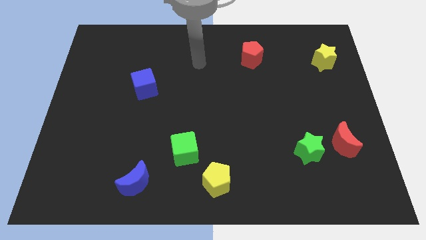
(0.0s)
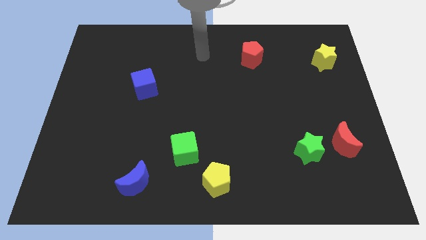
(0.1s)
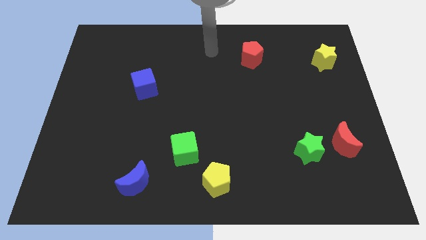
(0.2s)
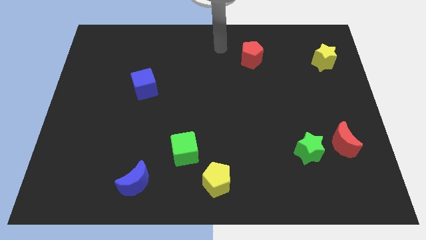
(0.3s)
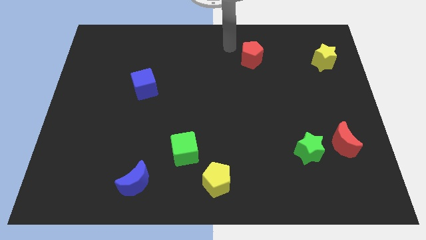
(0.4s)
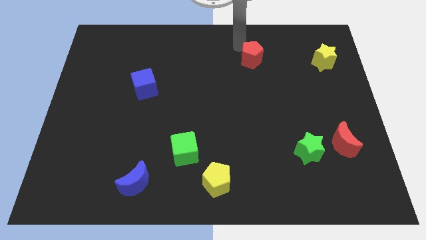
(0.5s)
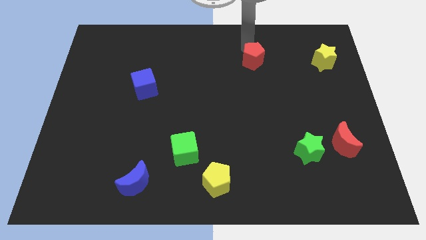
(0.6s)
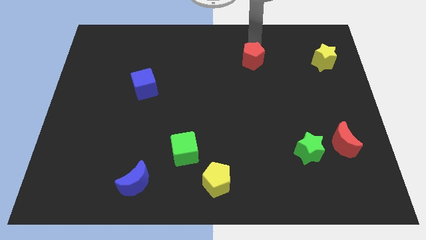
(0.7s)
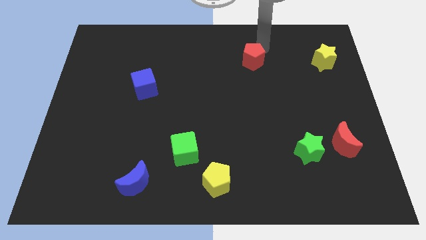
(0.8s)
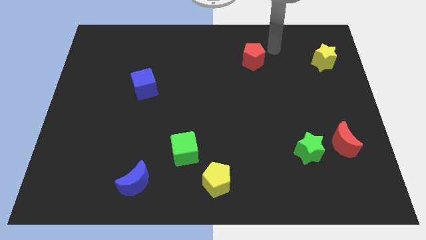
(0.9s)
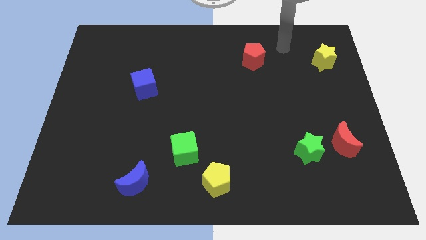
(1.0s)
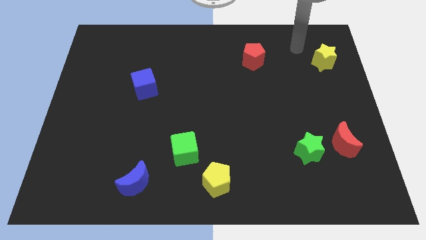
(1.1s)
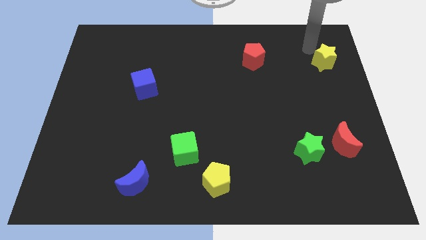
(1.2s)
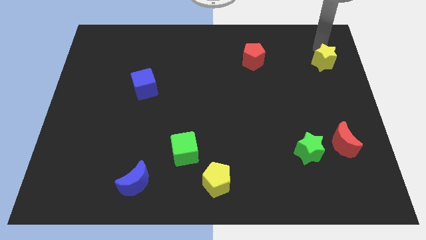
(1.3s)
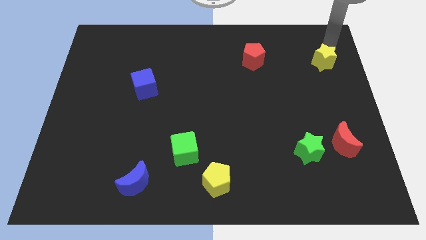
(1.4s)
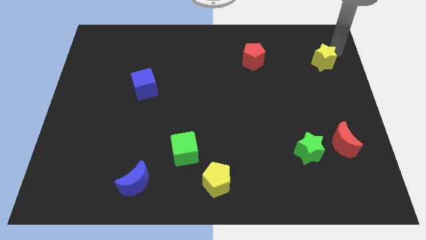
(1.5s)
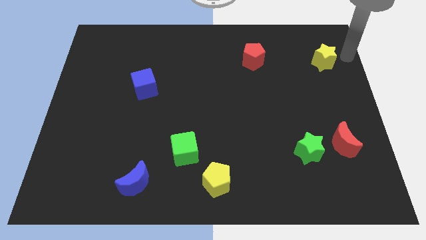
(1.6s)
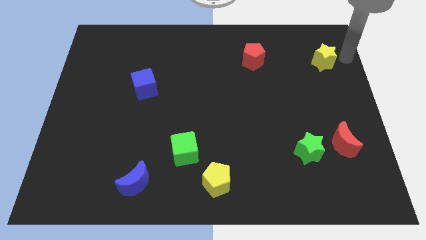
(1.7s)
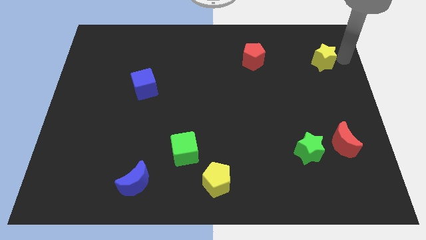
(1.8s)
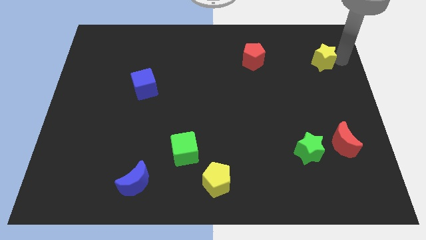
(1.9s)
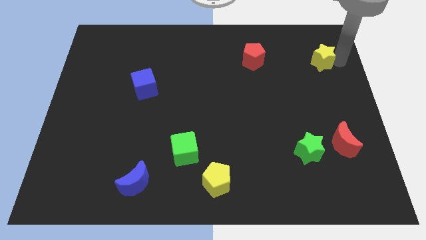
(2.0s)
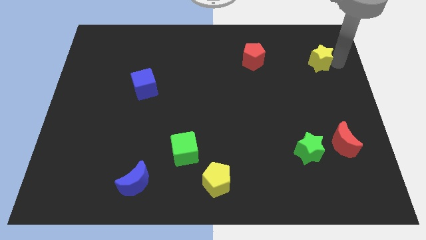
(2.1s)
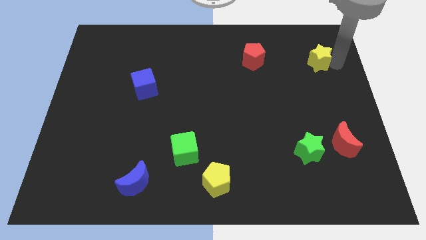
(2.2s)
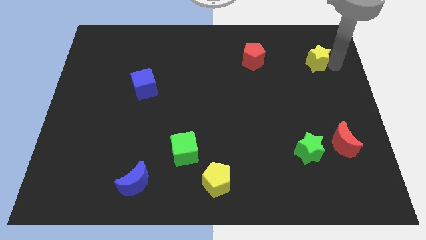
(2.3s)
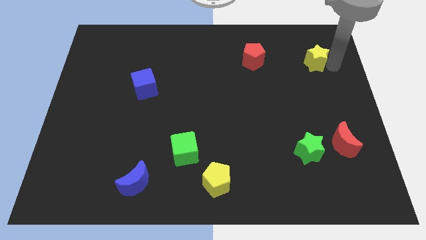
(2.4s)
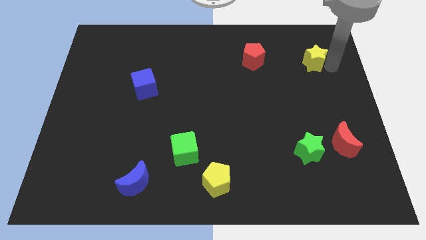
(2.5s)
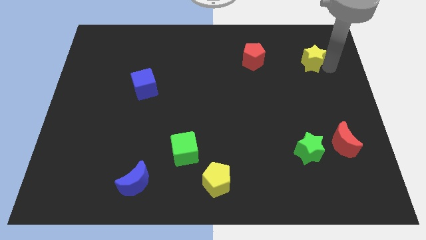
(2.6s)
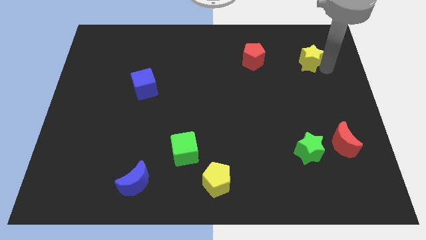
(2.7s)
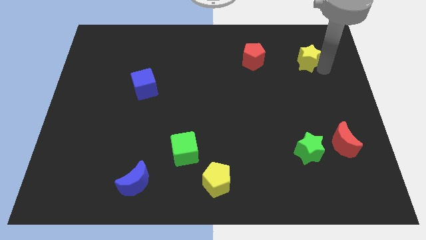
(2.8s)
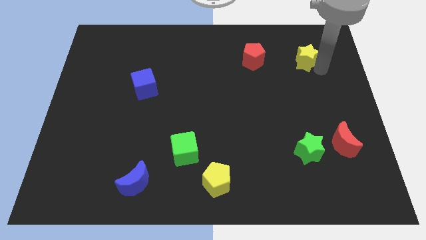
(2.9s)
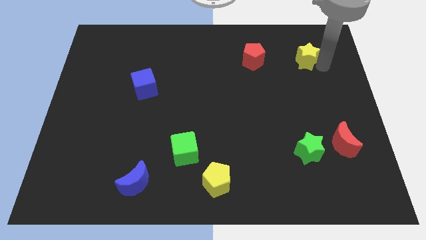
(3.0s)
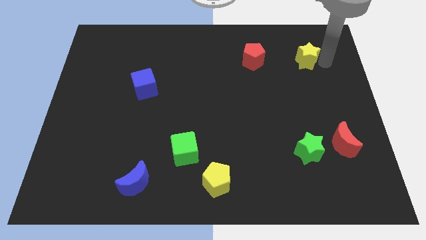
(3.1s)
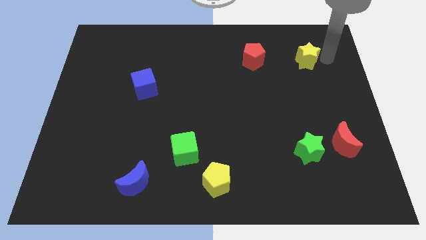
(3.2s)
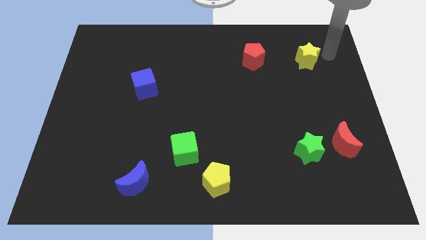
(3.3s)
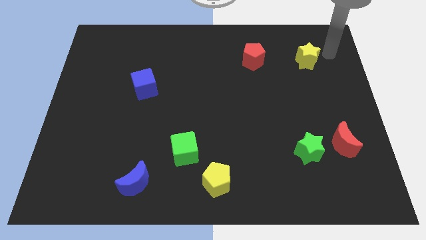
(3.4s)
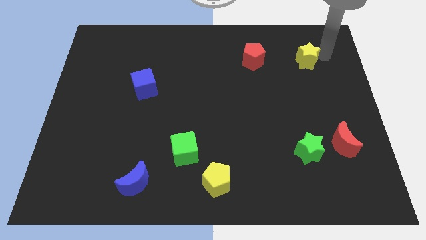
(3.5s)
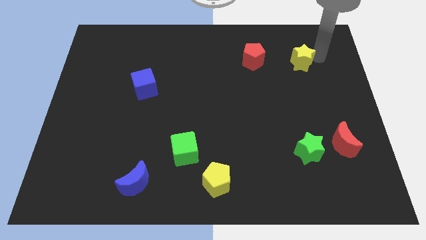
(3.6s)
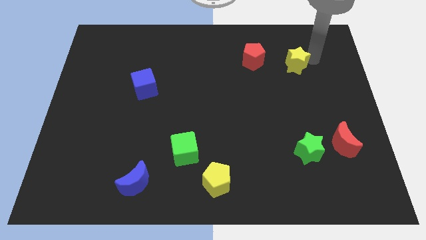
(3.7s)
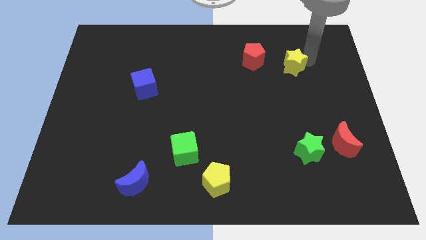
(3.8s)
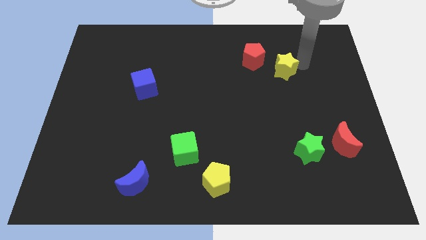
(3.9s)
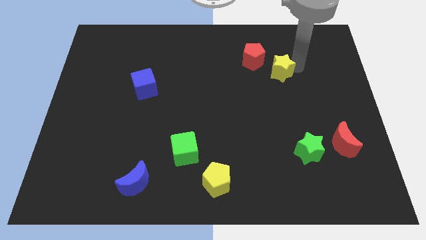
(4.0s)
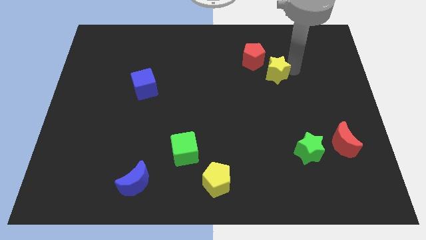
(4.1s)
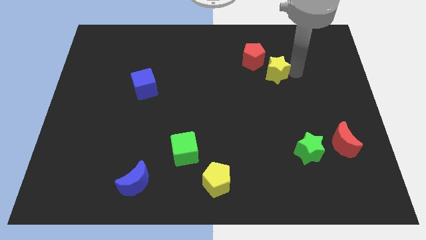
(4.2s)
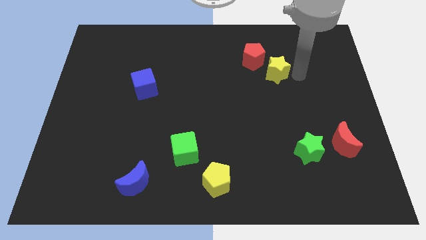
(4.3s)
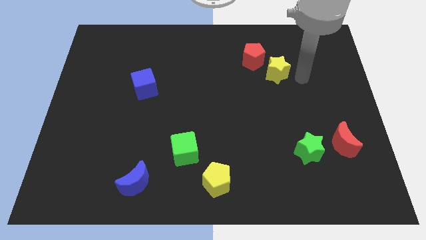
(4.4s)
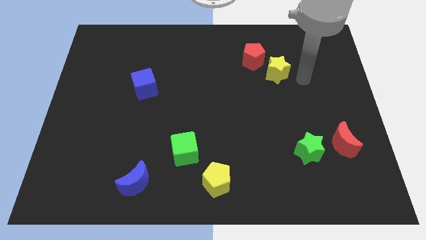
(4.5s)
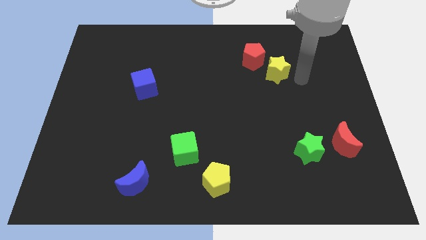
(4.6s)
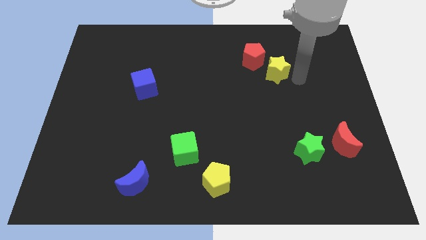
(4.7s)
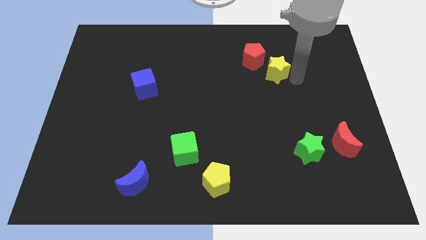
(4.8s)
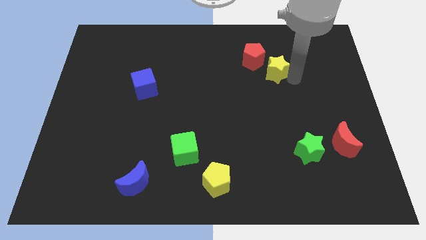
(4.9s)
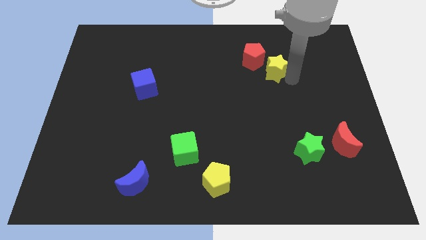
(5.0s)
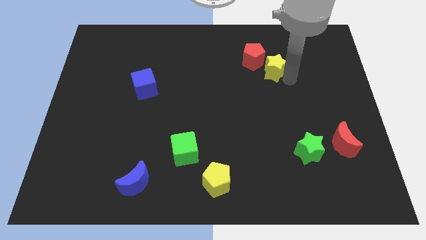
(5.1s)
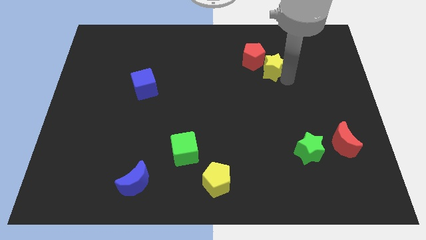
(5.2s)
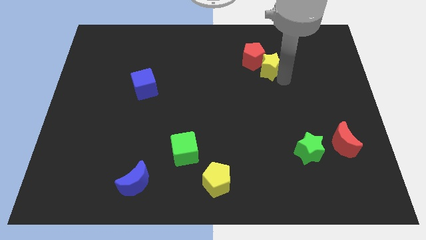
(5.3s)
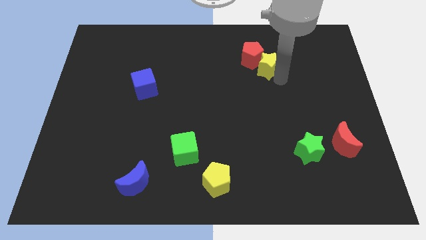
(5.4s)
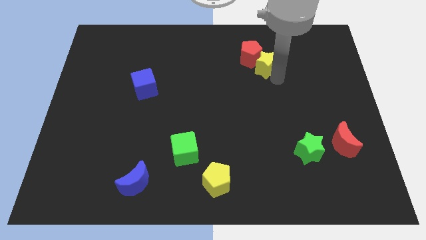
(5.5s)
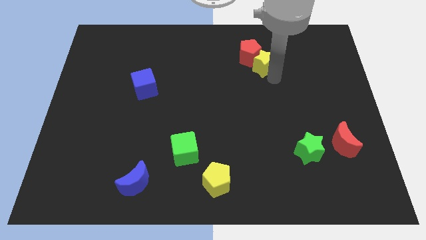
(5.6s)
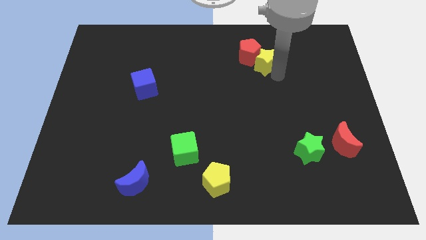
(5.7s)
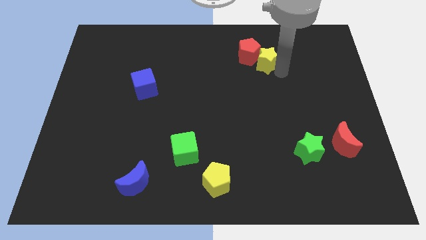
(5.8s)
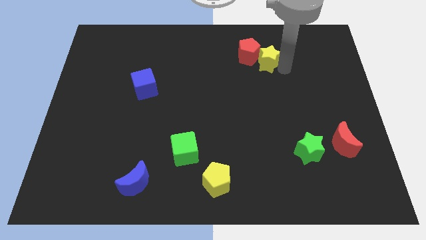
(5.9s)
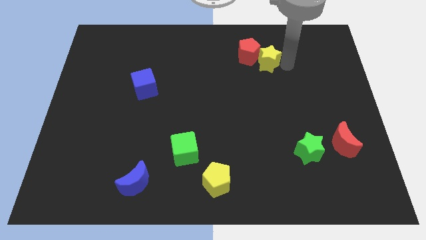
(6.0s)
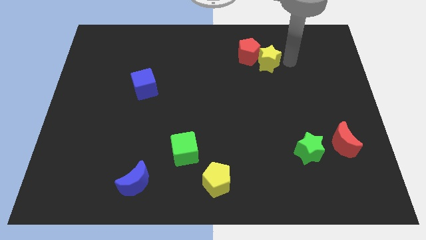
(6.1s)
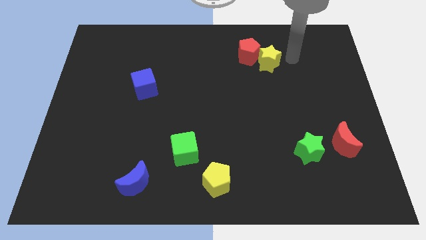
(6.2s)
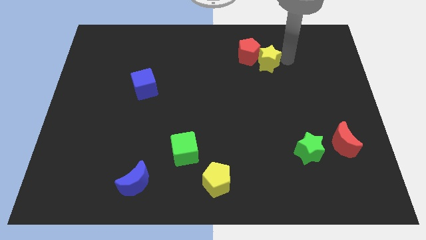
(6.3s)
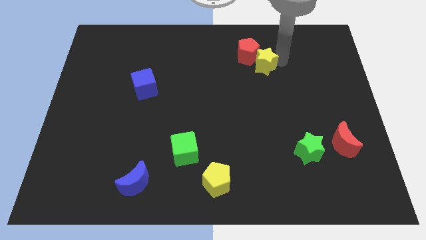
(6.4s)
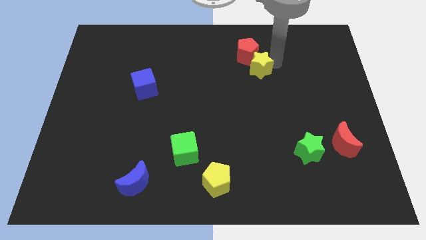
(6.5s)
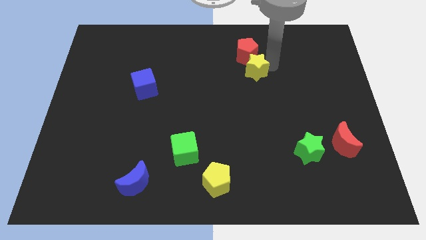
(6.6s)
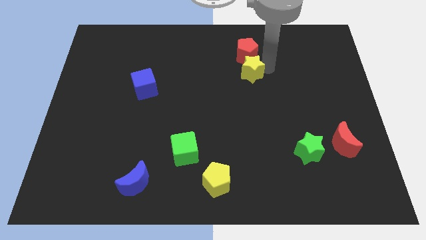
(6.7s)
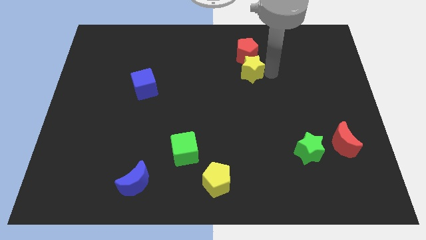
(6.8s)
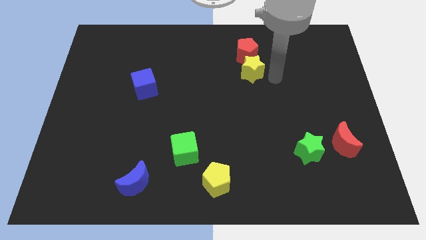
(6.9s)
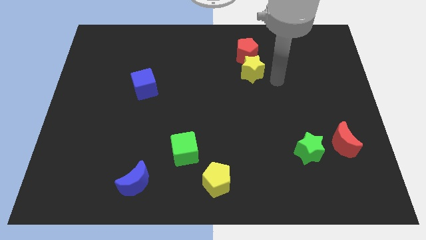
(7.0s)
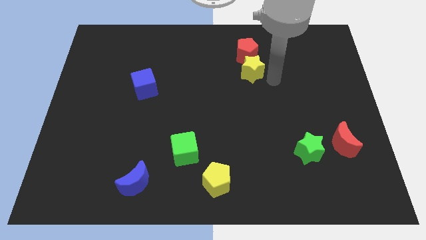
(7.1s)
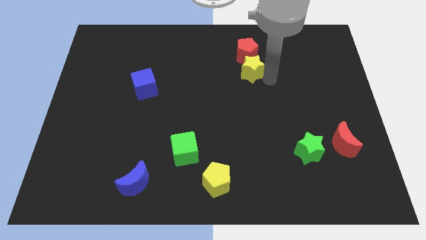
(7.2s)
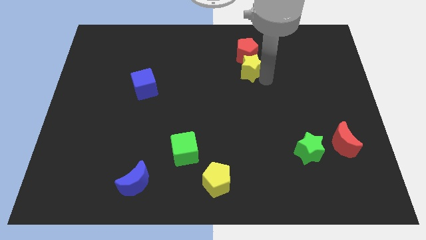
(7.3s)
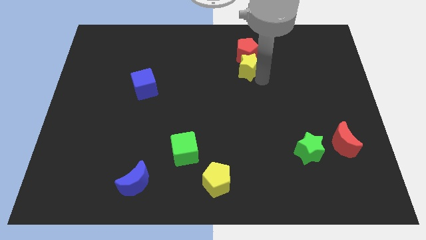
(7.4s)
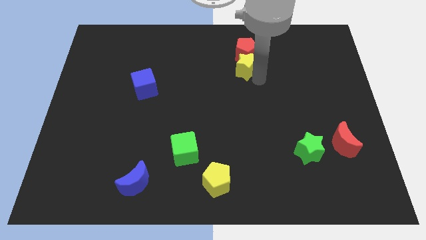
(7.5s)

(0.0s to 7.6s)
move the yellow star left
